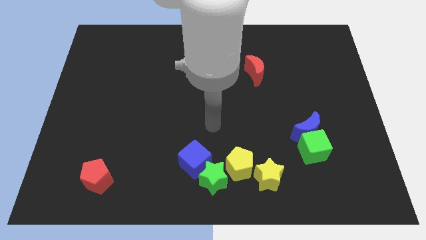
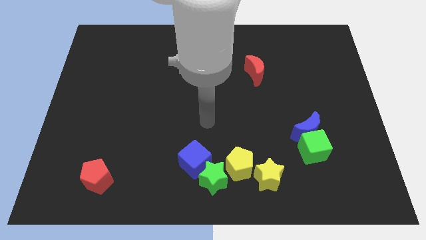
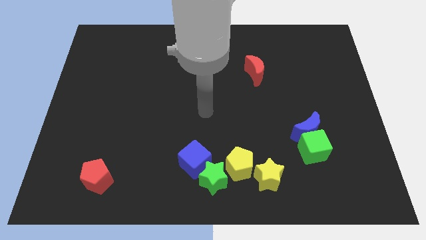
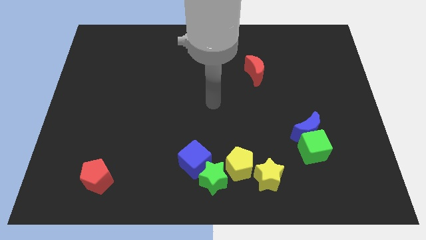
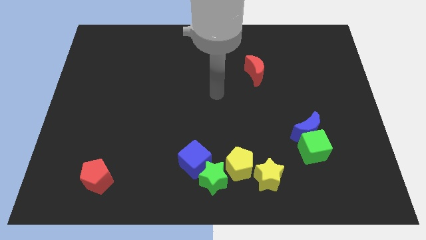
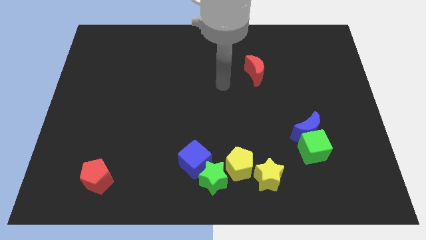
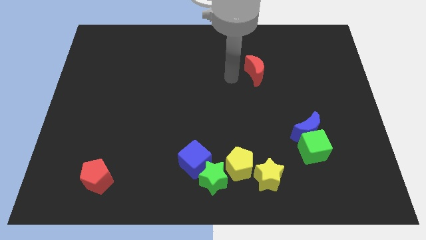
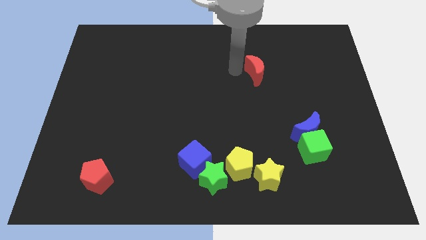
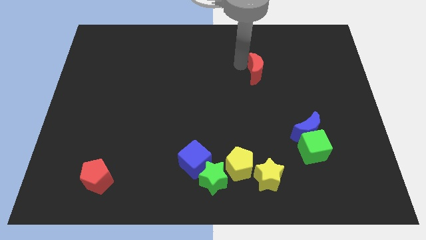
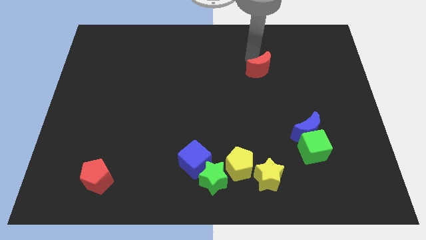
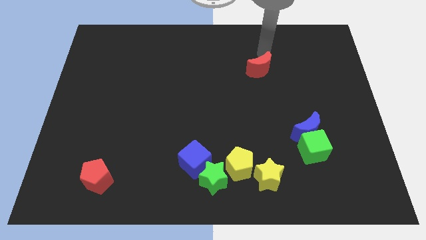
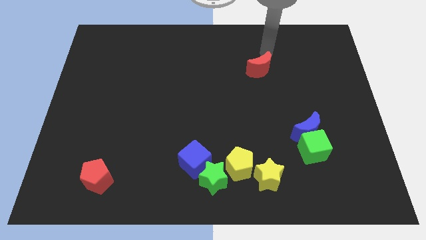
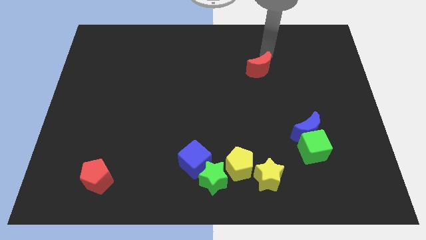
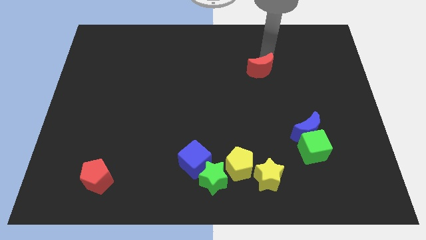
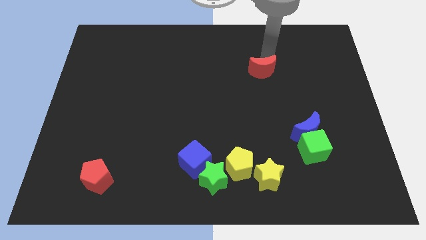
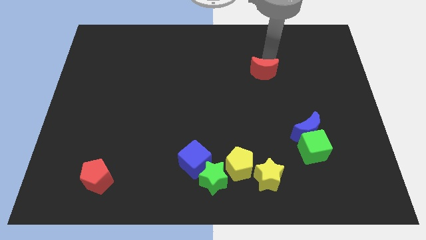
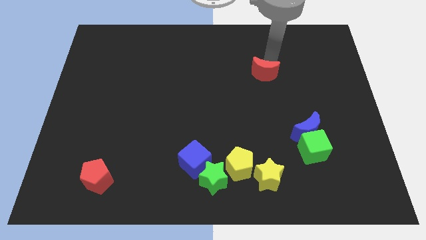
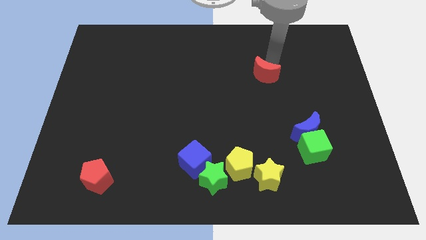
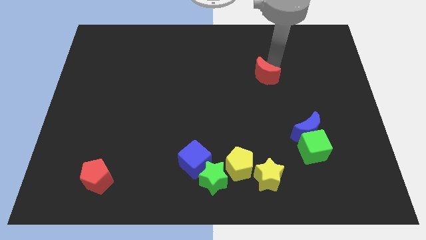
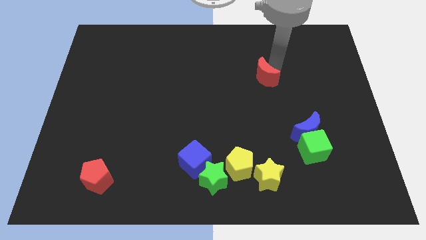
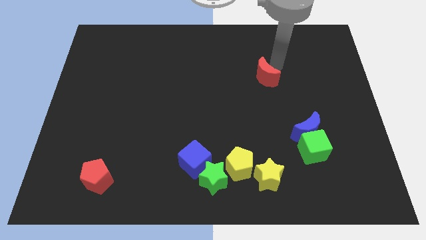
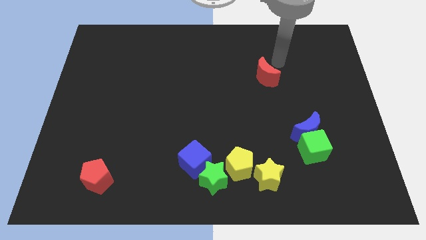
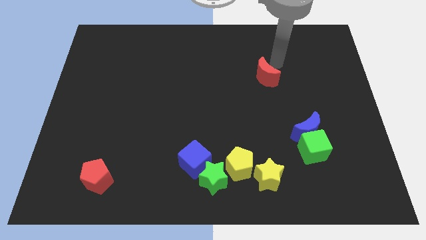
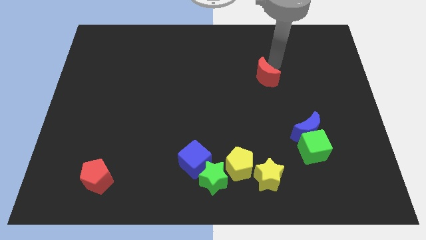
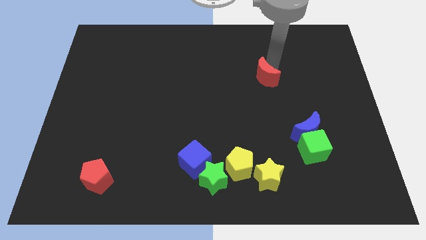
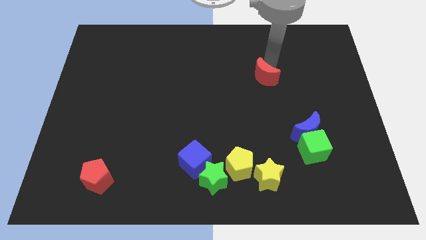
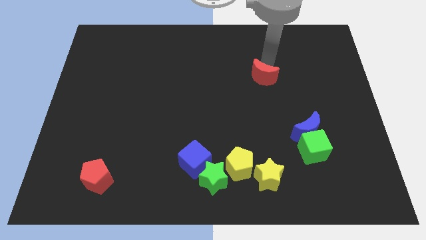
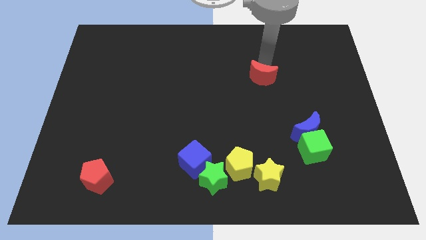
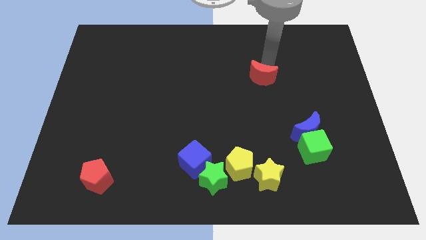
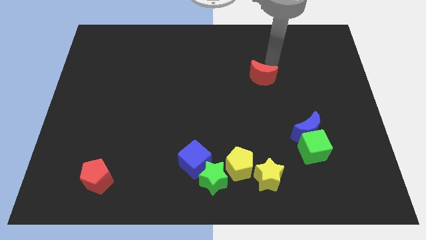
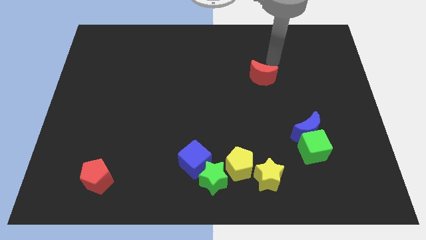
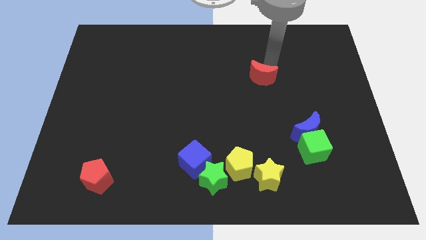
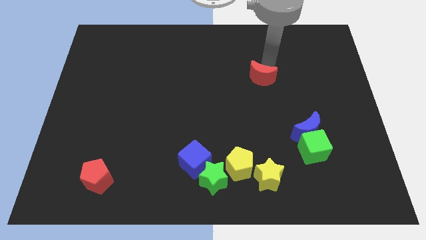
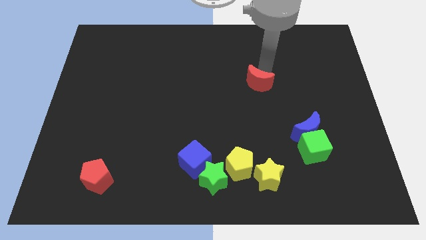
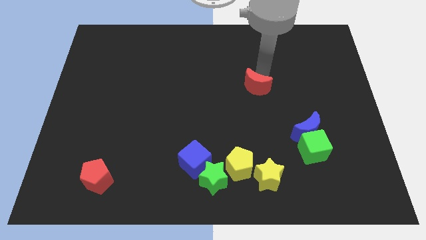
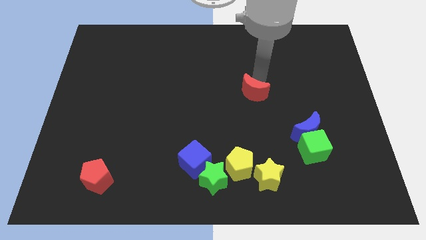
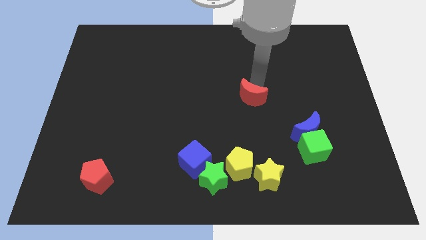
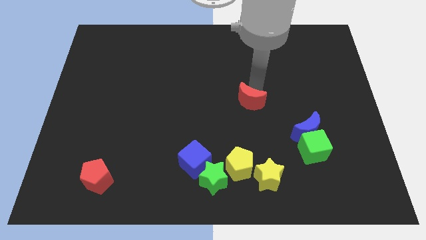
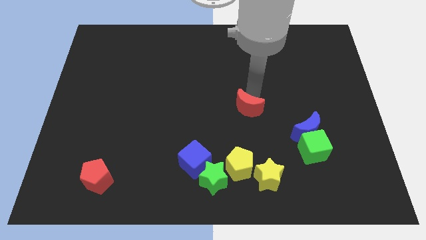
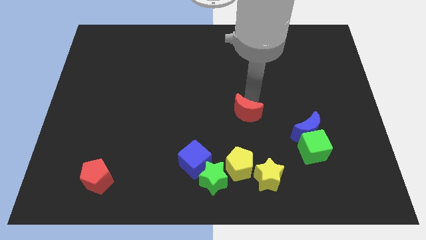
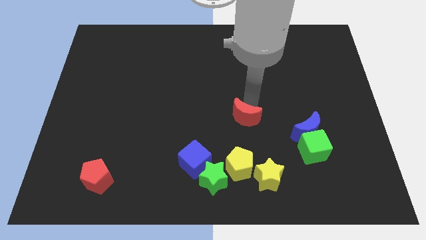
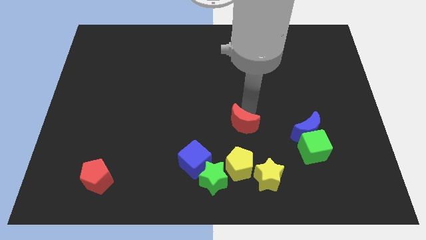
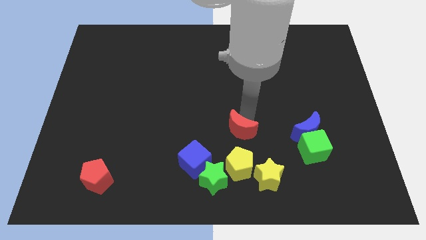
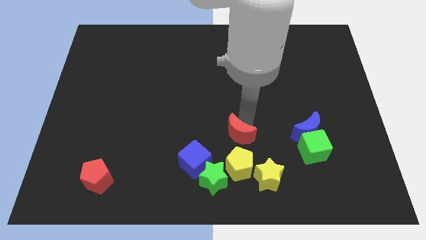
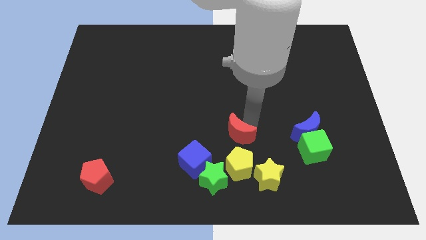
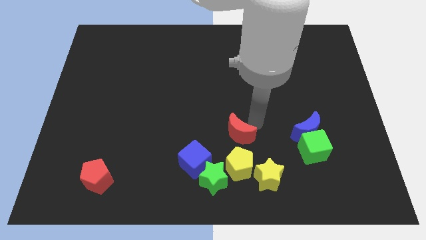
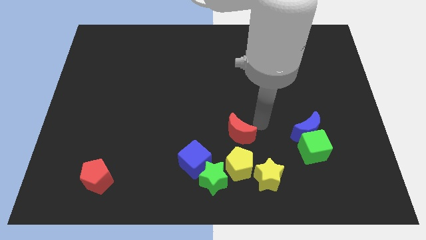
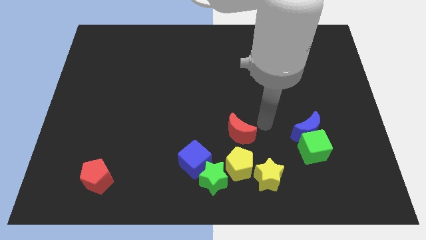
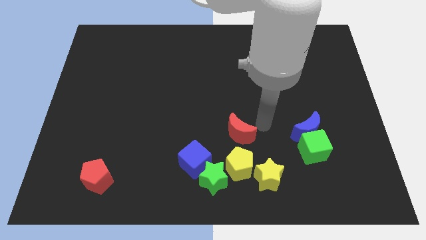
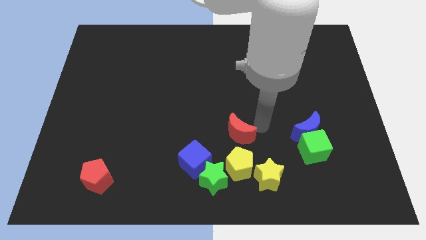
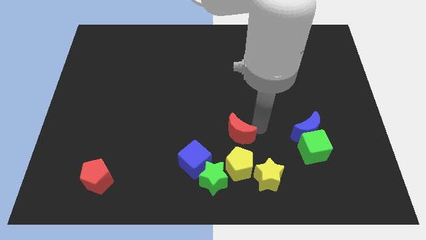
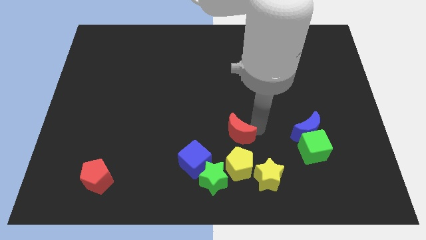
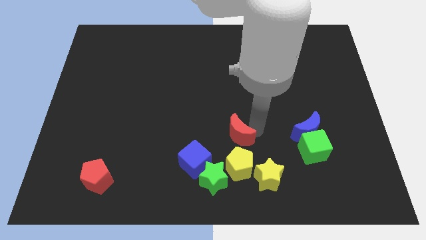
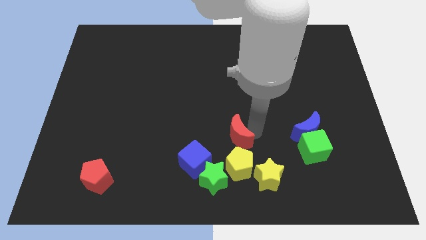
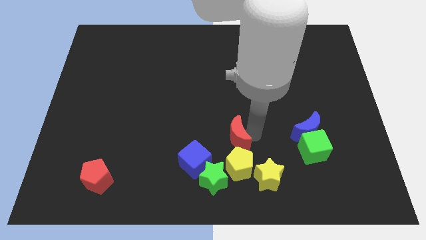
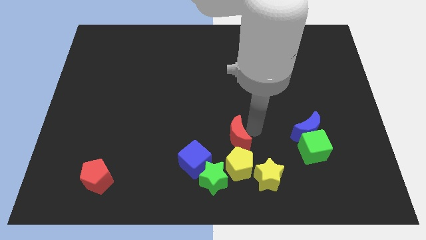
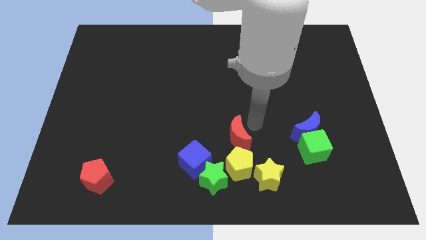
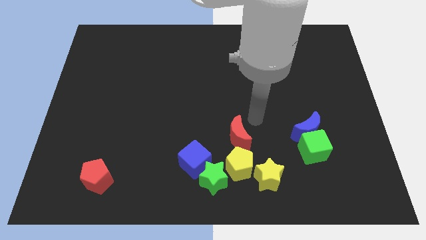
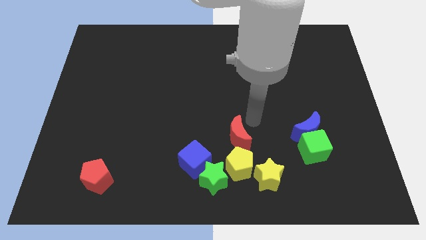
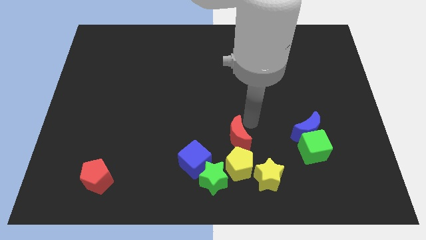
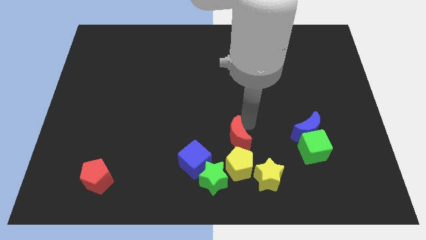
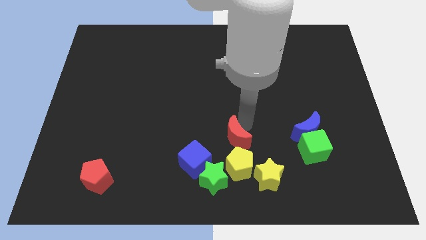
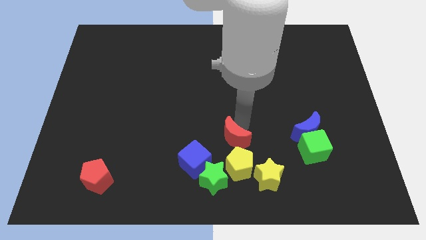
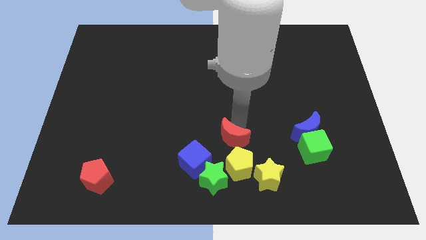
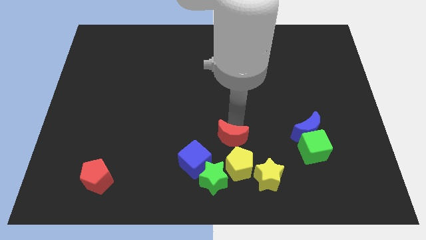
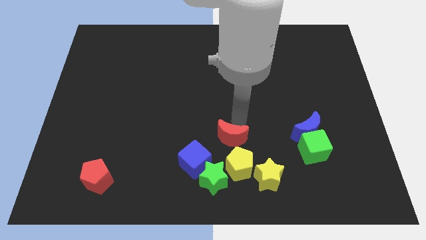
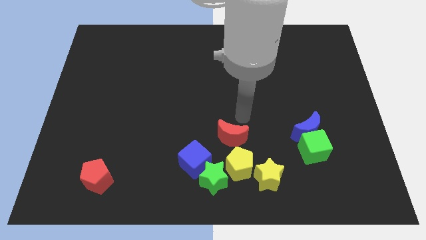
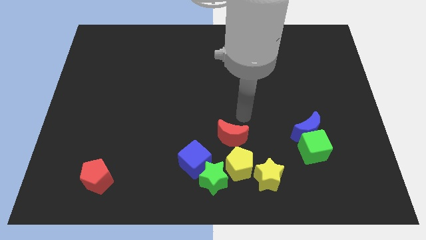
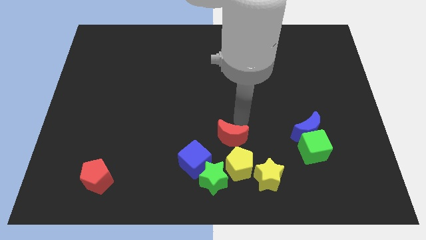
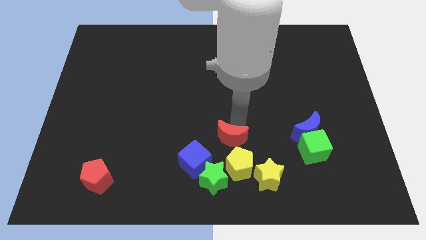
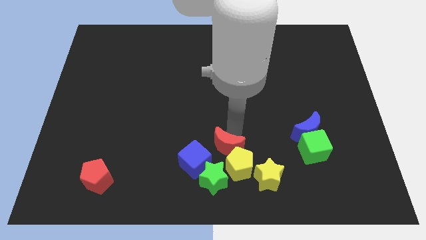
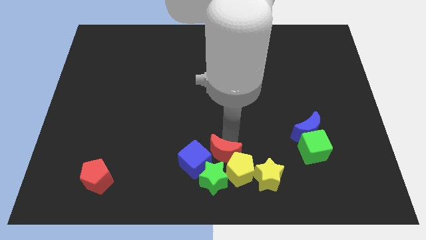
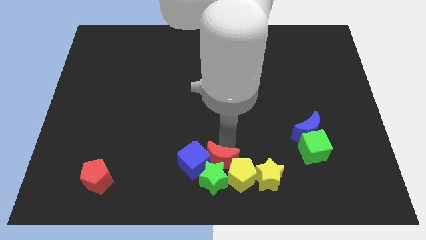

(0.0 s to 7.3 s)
put the red moon next to the green star
